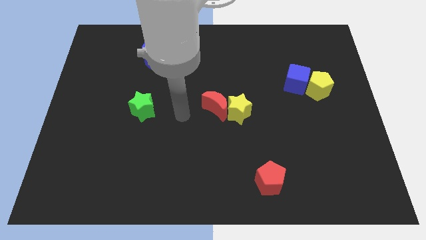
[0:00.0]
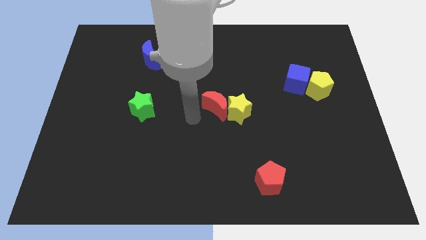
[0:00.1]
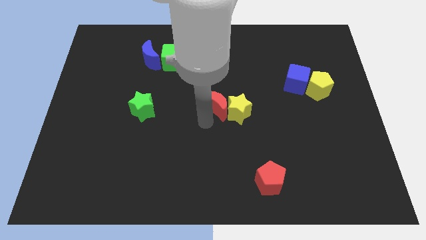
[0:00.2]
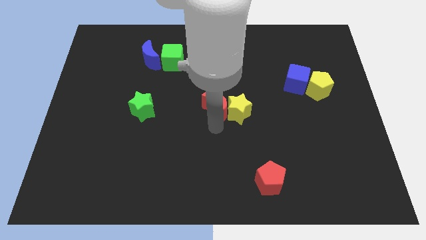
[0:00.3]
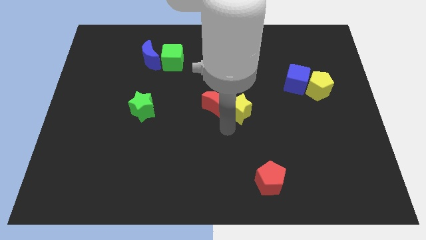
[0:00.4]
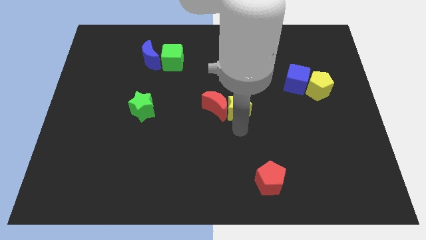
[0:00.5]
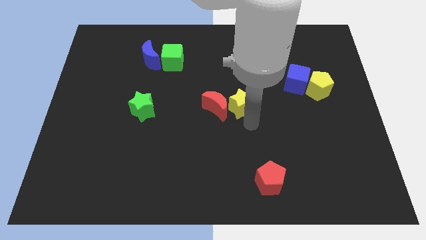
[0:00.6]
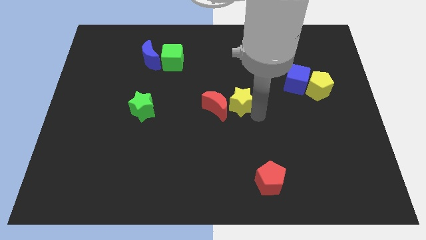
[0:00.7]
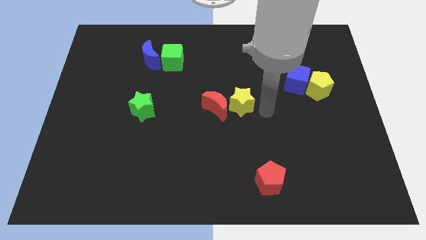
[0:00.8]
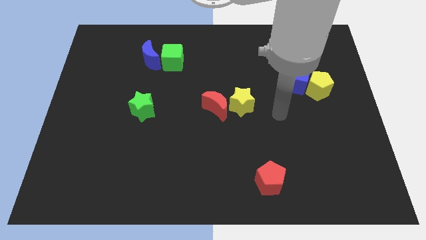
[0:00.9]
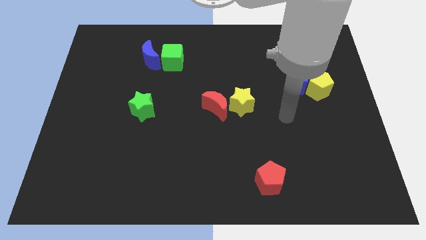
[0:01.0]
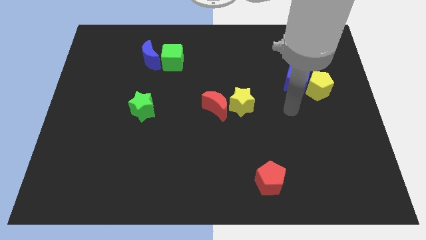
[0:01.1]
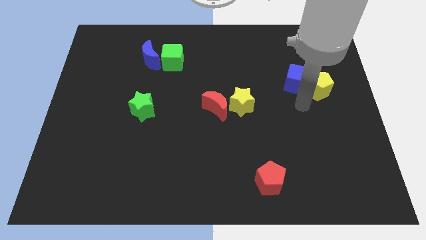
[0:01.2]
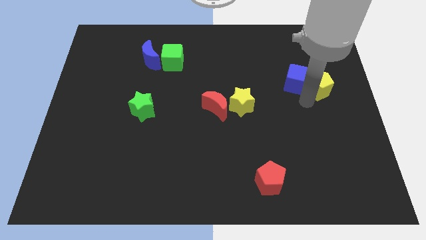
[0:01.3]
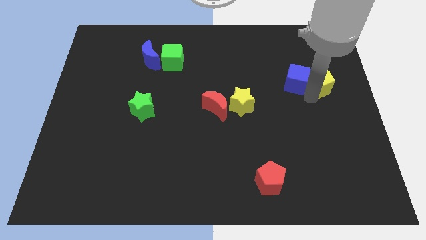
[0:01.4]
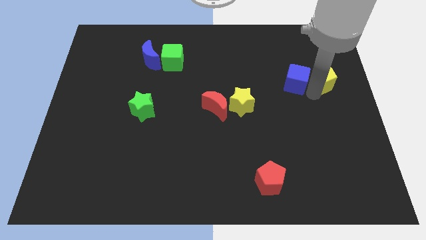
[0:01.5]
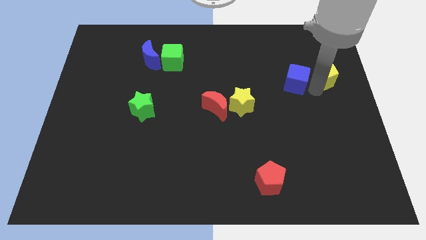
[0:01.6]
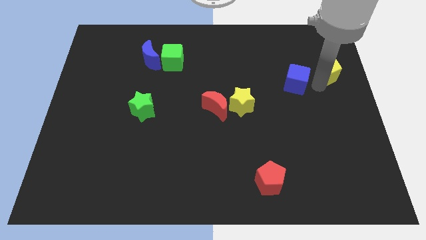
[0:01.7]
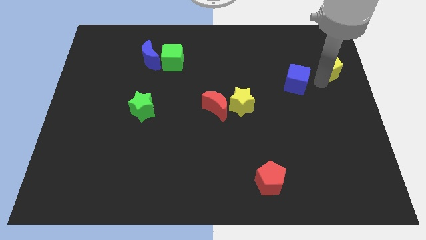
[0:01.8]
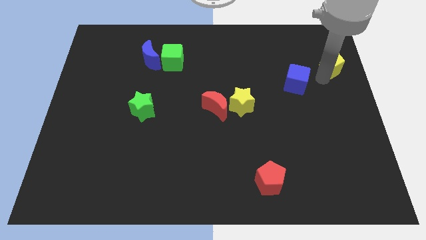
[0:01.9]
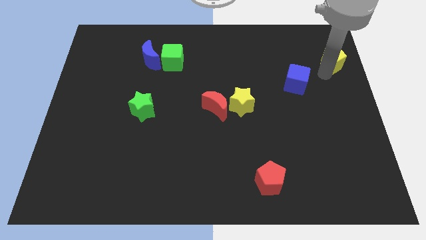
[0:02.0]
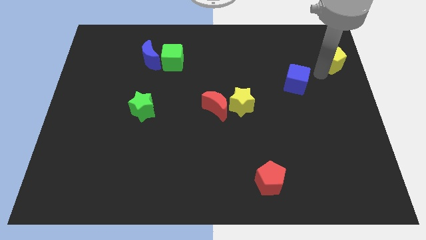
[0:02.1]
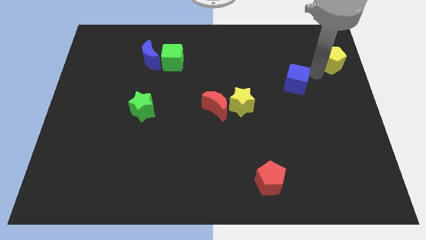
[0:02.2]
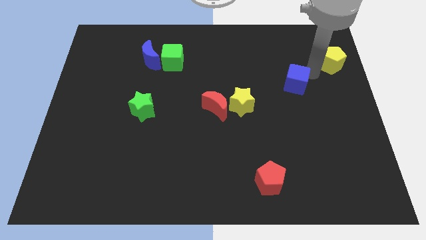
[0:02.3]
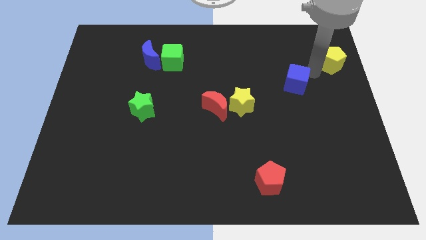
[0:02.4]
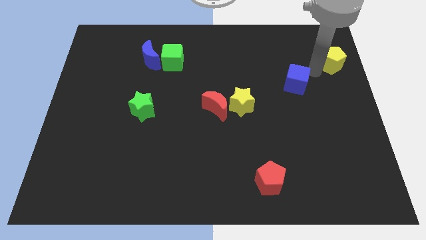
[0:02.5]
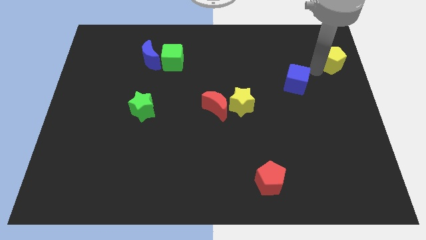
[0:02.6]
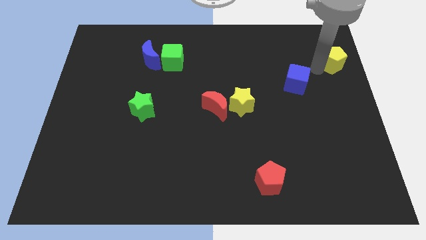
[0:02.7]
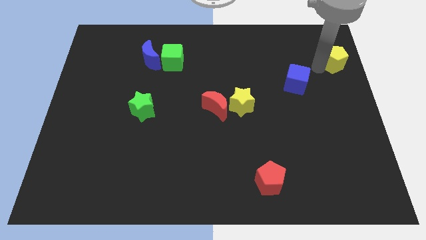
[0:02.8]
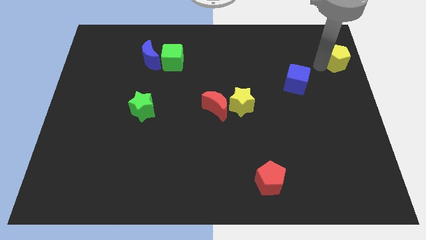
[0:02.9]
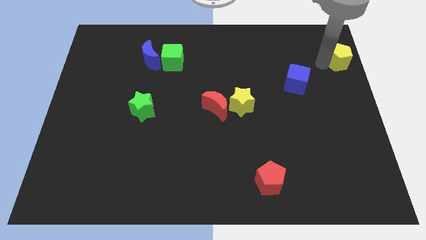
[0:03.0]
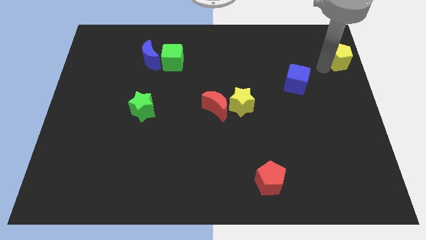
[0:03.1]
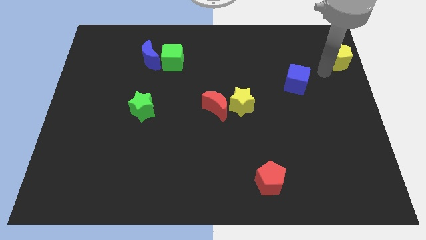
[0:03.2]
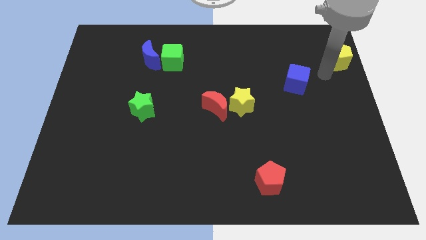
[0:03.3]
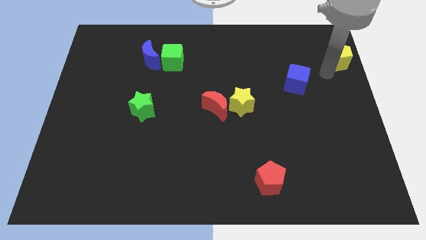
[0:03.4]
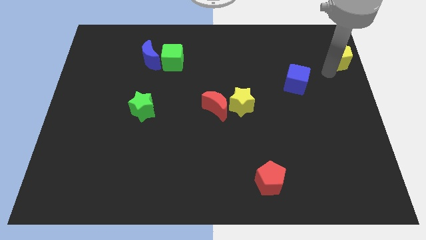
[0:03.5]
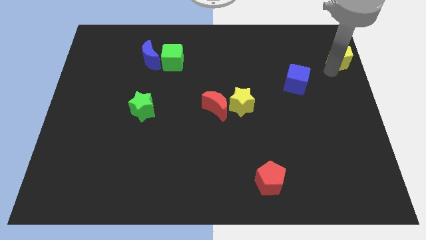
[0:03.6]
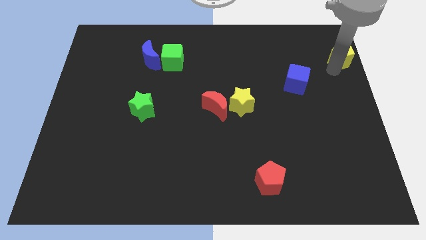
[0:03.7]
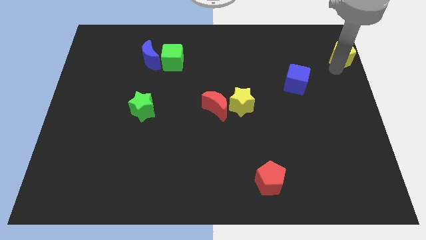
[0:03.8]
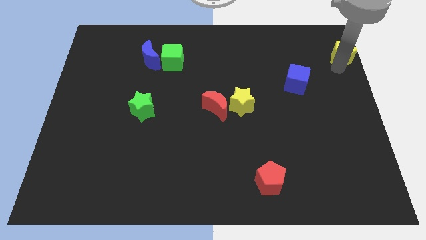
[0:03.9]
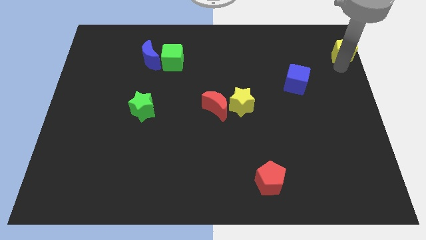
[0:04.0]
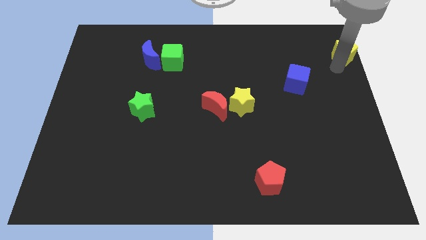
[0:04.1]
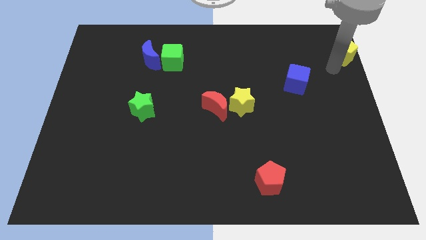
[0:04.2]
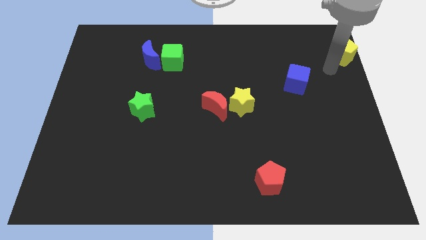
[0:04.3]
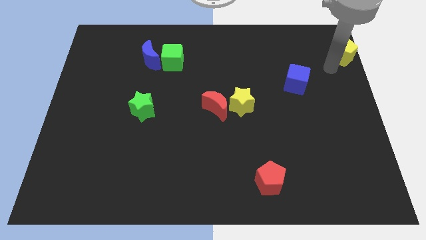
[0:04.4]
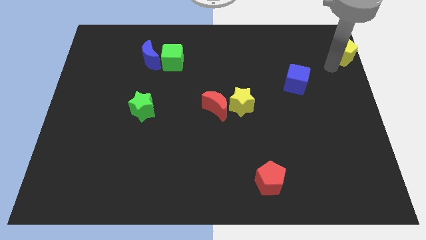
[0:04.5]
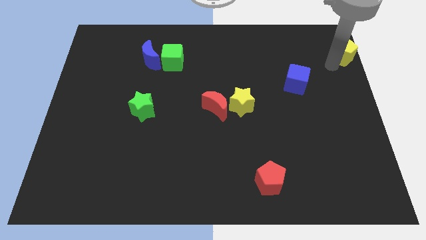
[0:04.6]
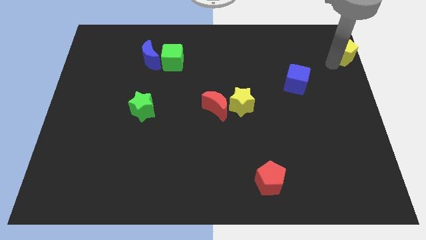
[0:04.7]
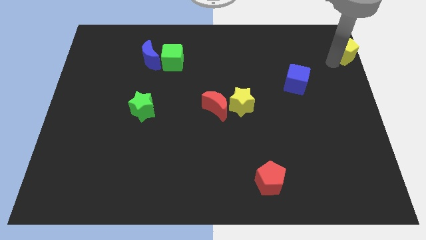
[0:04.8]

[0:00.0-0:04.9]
move the yellow pentagon to the top right corner

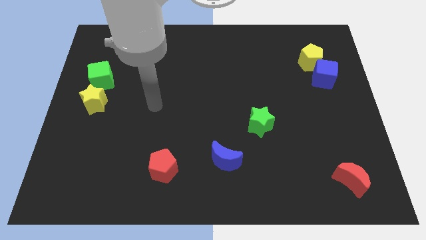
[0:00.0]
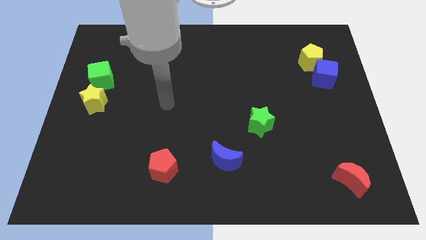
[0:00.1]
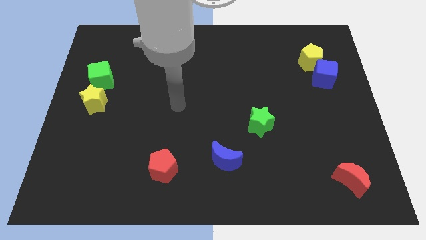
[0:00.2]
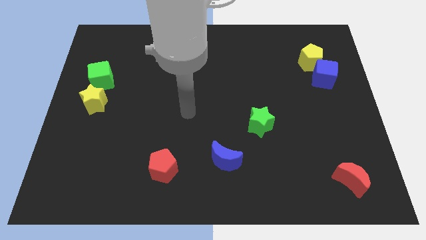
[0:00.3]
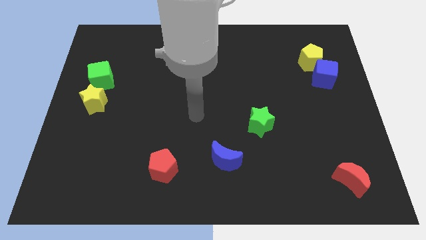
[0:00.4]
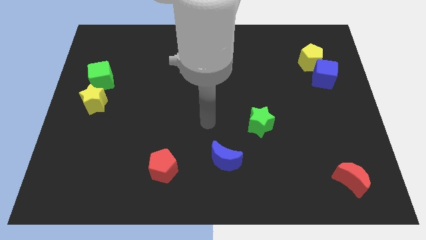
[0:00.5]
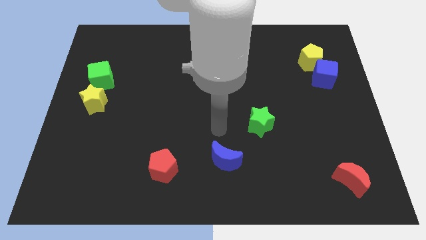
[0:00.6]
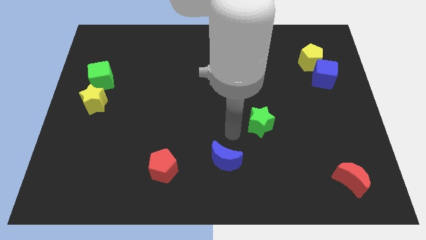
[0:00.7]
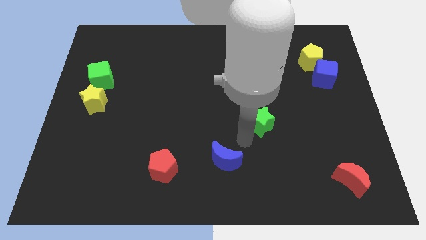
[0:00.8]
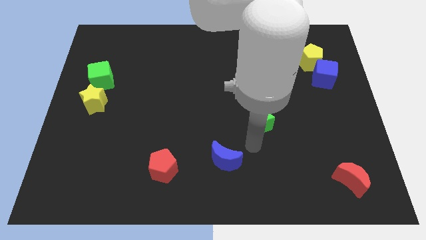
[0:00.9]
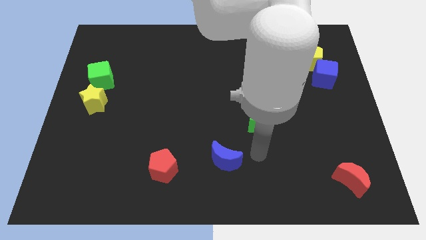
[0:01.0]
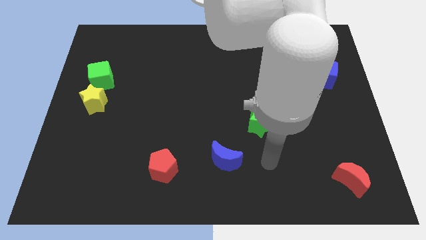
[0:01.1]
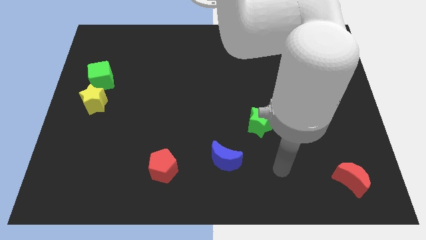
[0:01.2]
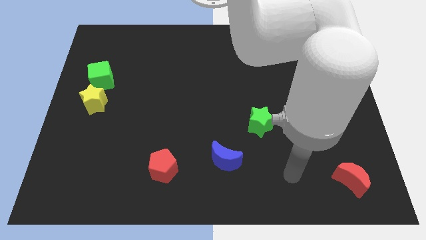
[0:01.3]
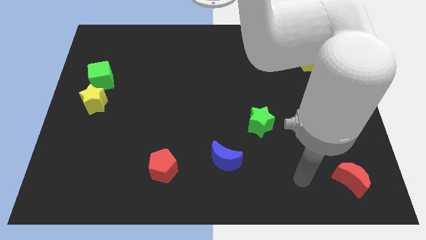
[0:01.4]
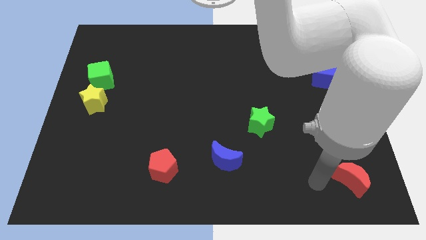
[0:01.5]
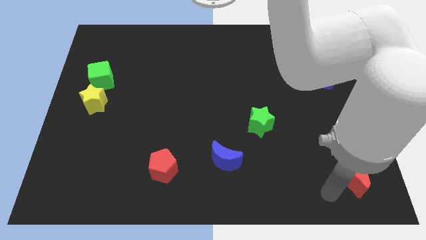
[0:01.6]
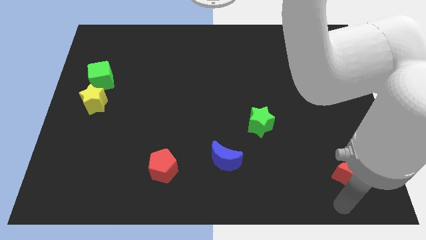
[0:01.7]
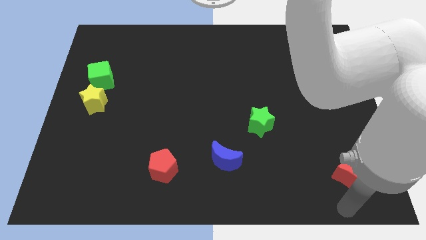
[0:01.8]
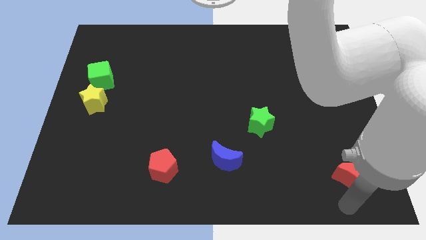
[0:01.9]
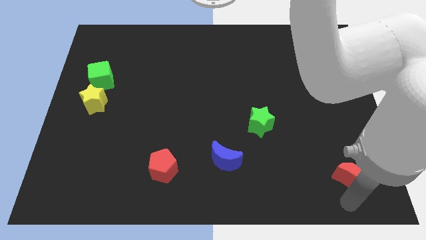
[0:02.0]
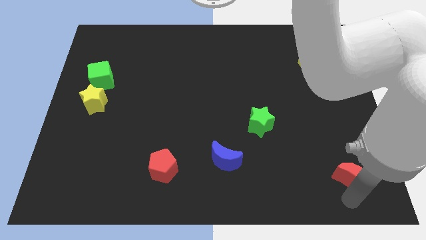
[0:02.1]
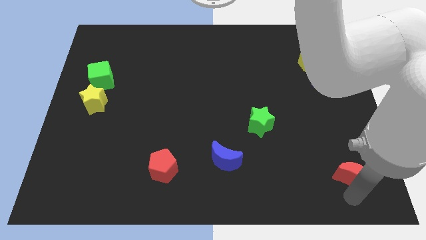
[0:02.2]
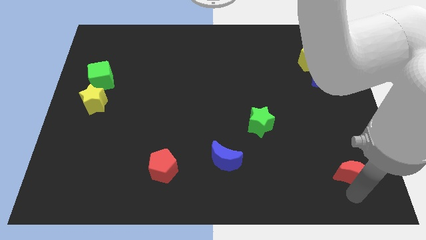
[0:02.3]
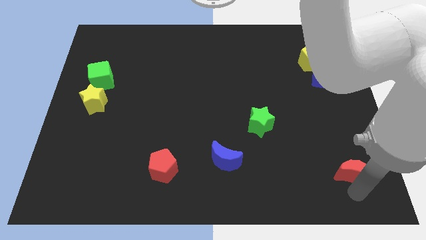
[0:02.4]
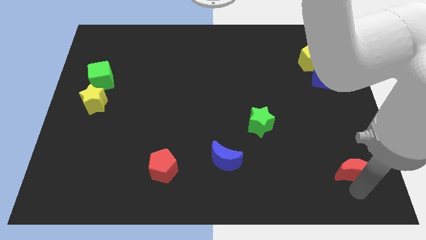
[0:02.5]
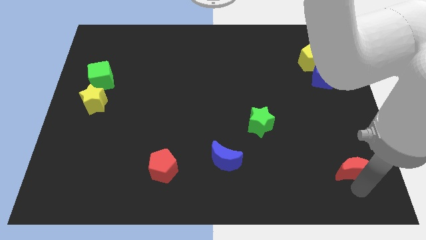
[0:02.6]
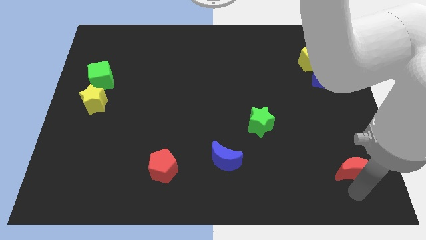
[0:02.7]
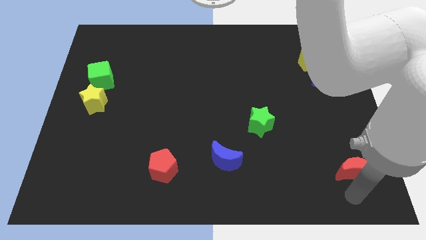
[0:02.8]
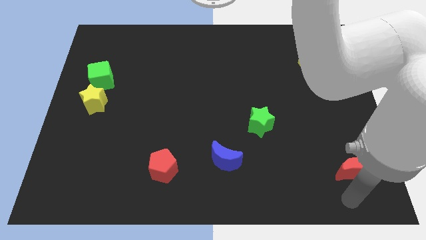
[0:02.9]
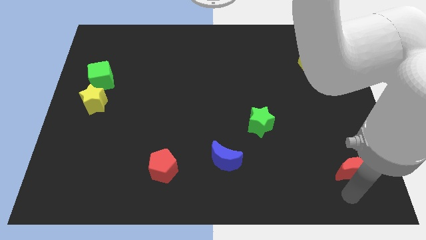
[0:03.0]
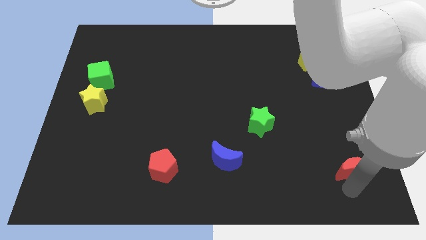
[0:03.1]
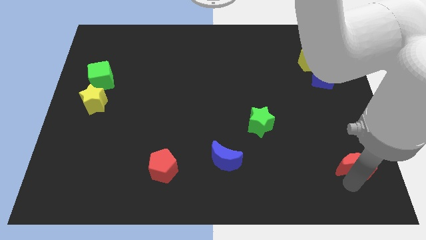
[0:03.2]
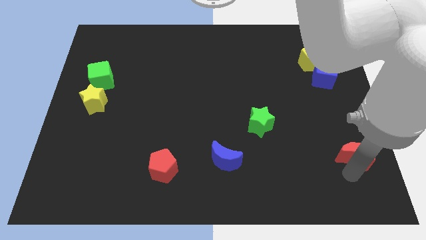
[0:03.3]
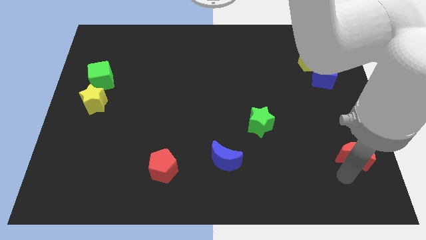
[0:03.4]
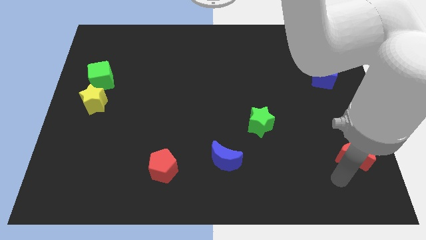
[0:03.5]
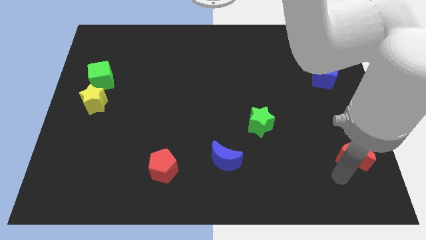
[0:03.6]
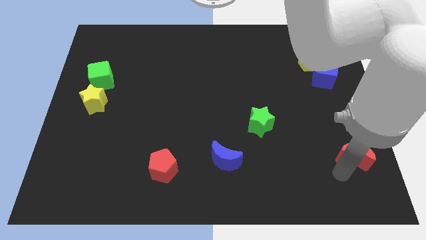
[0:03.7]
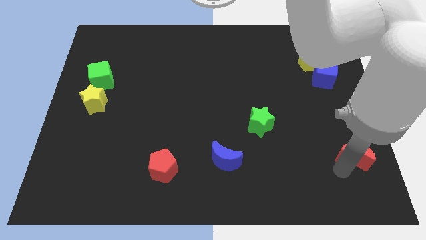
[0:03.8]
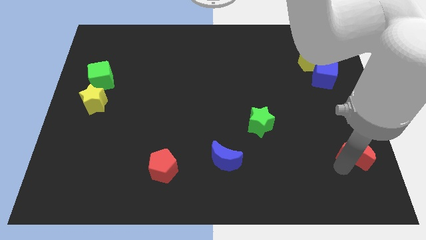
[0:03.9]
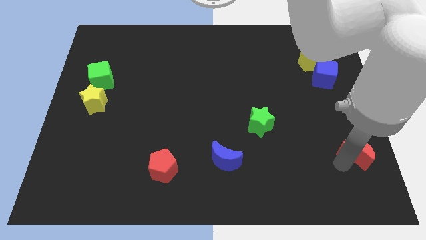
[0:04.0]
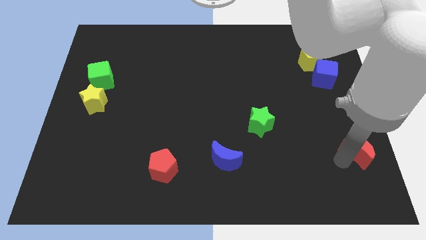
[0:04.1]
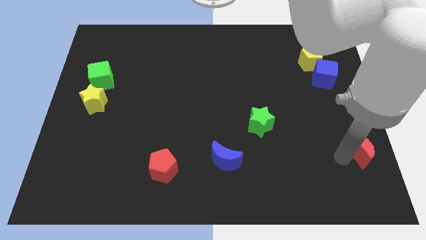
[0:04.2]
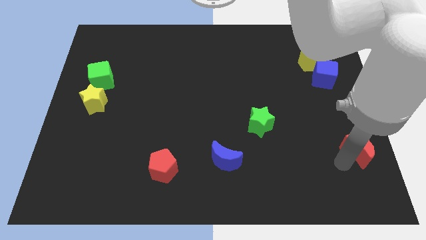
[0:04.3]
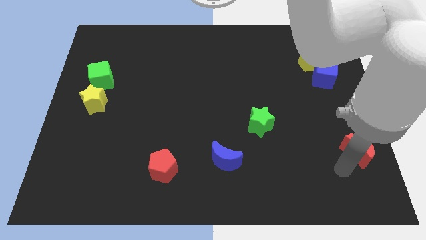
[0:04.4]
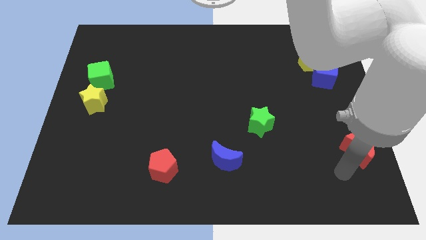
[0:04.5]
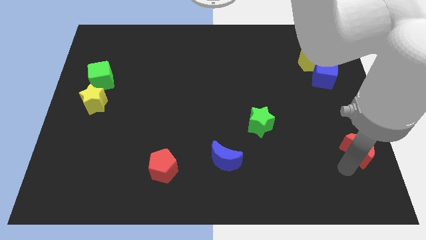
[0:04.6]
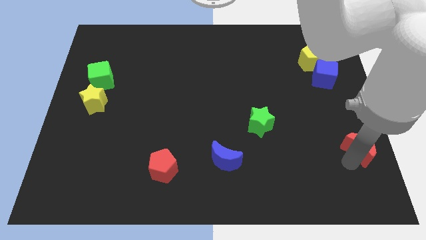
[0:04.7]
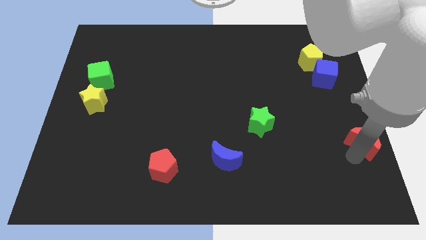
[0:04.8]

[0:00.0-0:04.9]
put the red moon to the right side
